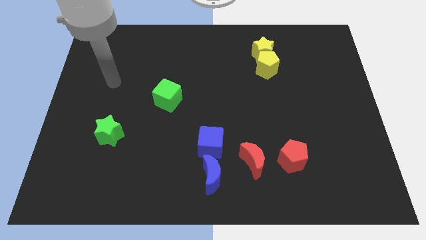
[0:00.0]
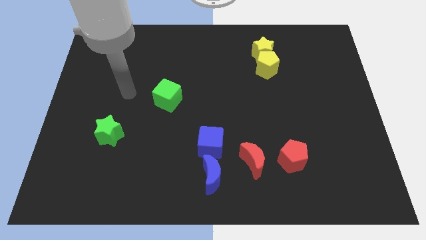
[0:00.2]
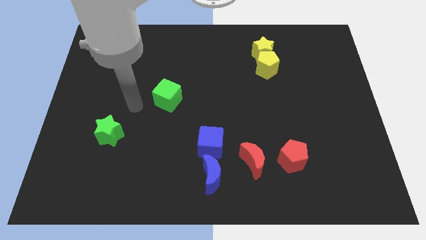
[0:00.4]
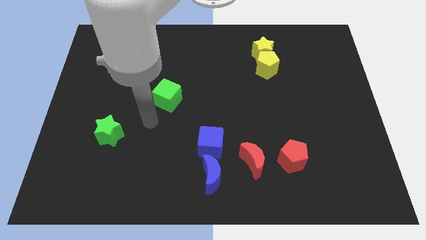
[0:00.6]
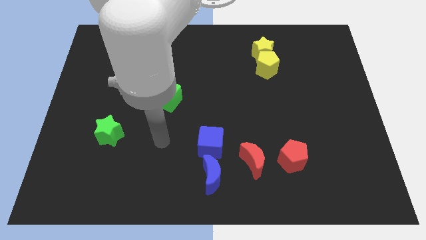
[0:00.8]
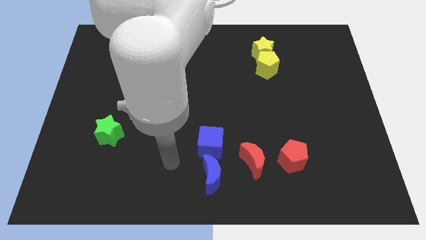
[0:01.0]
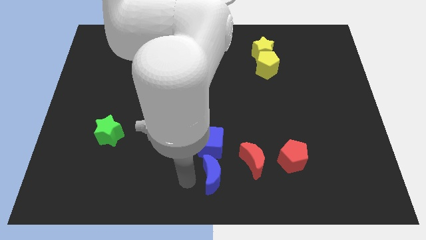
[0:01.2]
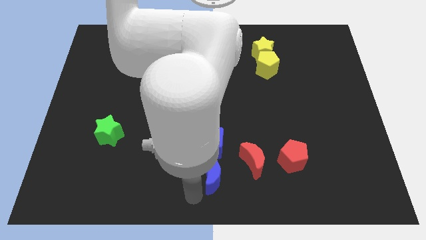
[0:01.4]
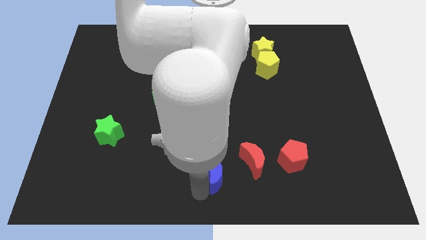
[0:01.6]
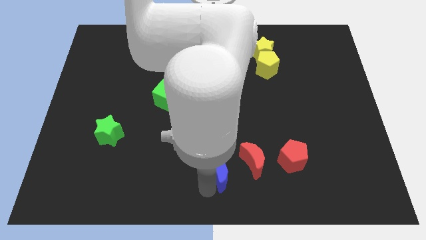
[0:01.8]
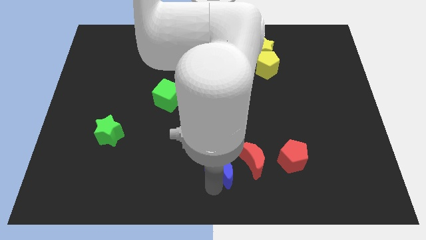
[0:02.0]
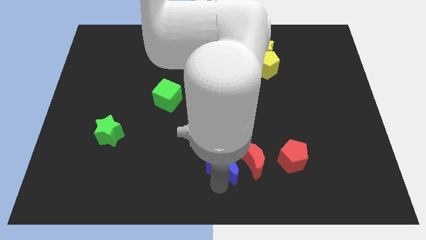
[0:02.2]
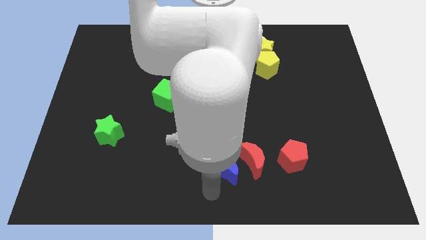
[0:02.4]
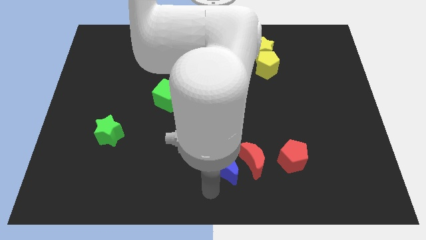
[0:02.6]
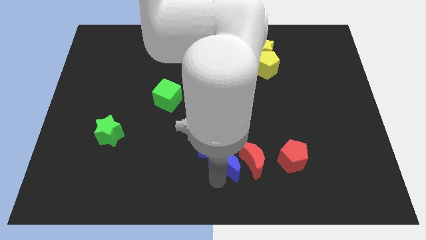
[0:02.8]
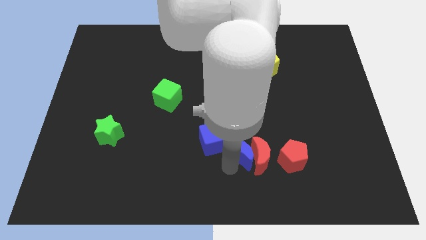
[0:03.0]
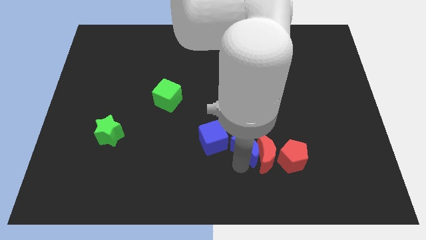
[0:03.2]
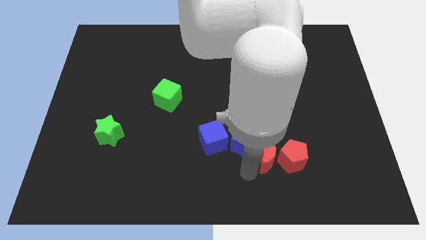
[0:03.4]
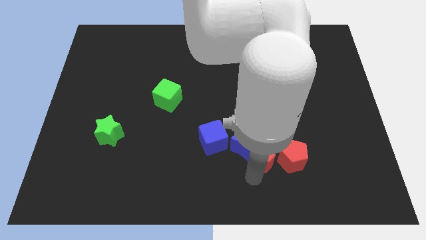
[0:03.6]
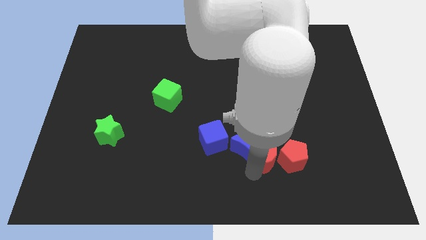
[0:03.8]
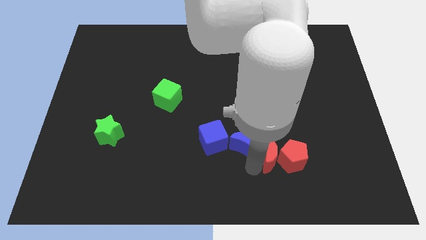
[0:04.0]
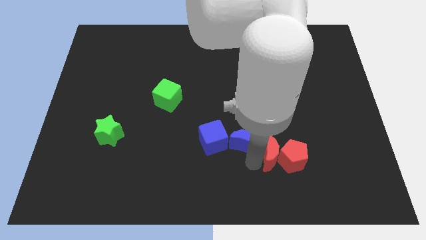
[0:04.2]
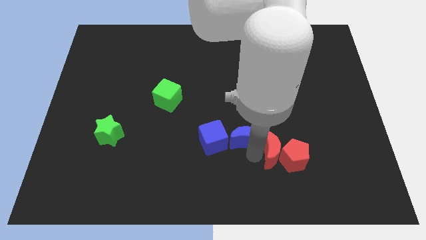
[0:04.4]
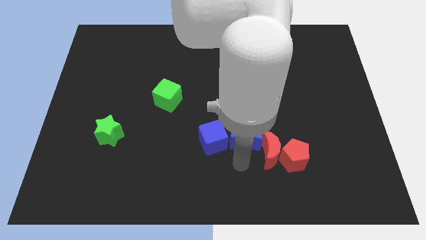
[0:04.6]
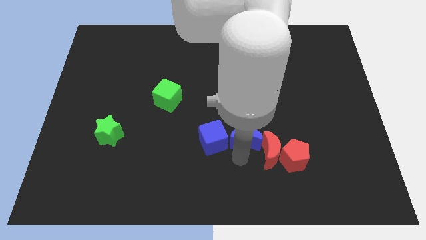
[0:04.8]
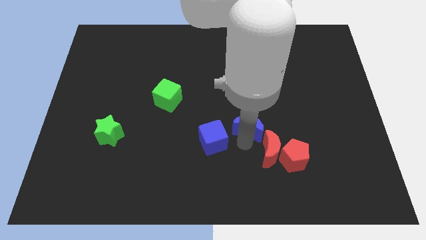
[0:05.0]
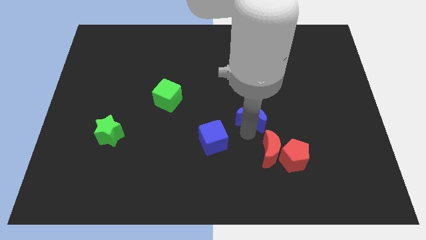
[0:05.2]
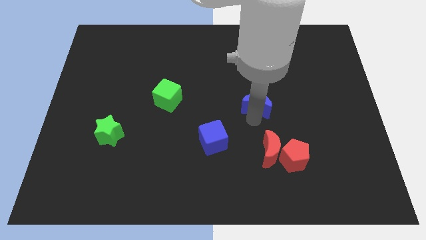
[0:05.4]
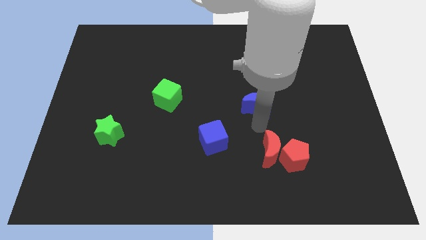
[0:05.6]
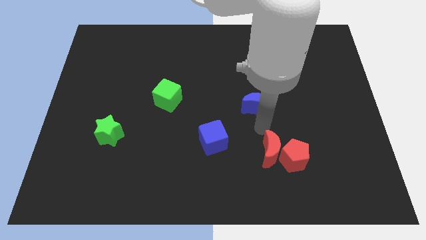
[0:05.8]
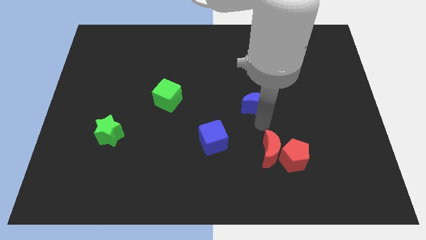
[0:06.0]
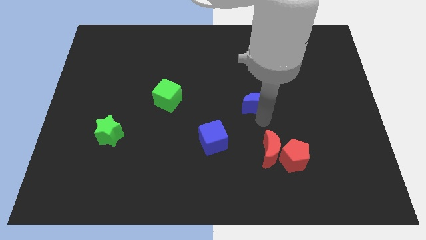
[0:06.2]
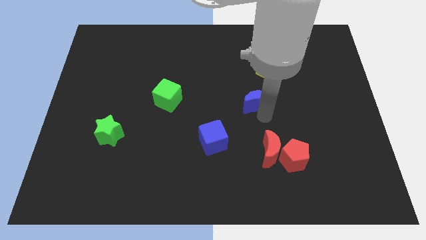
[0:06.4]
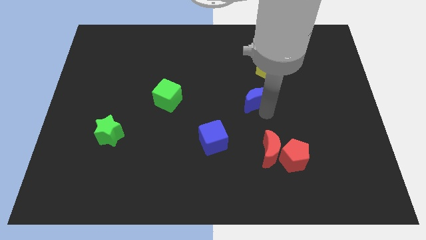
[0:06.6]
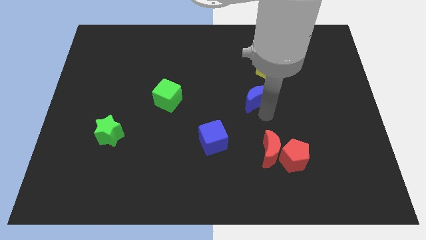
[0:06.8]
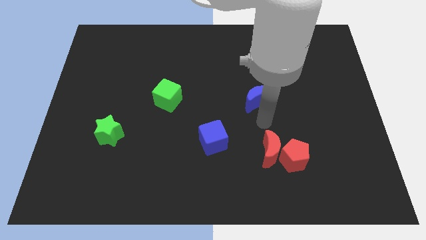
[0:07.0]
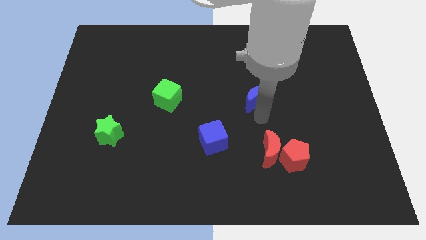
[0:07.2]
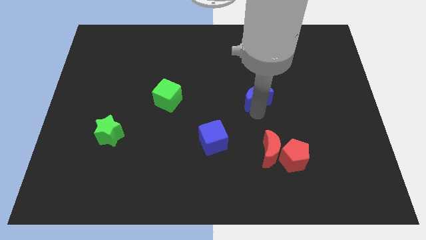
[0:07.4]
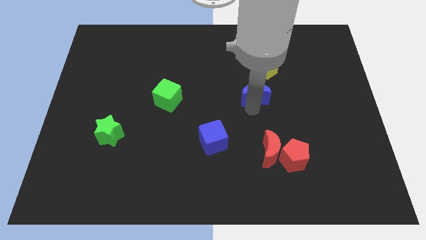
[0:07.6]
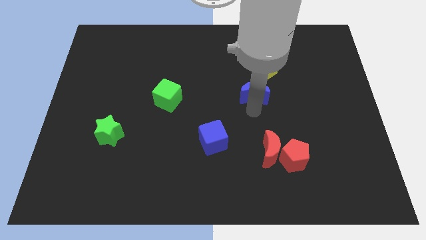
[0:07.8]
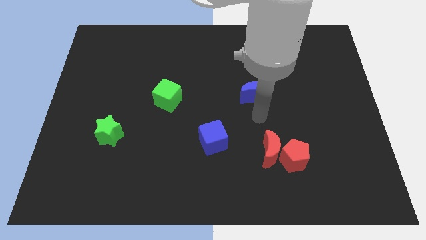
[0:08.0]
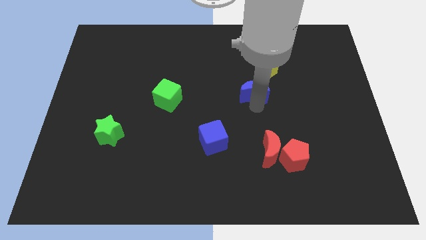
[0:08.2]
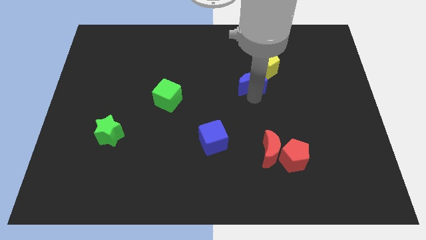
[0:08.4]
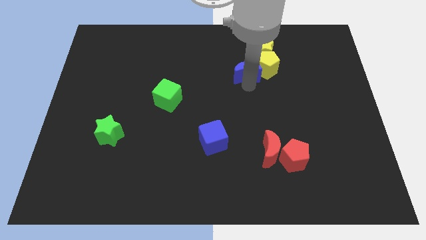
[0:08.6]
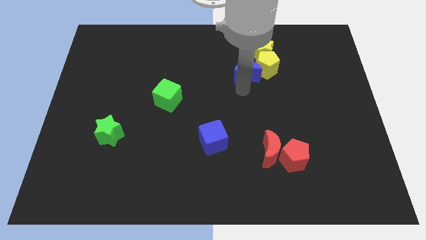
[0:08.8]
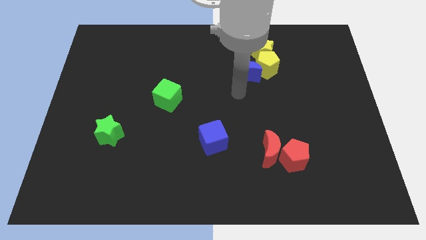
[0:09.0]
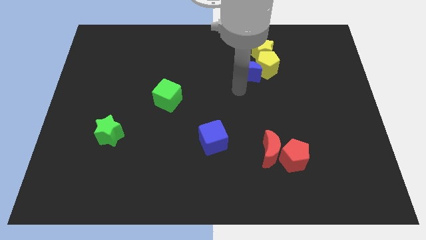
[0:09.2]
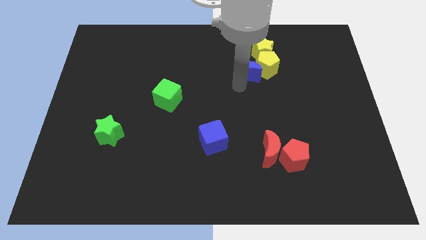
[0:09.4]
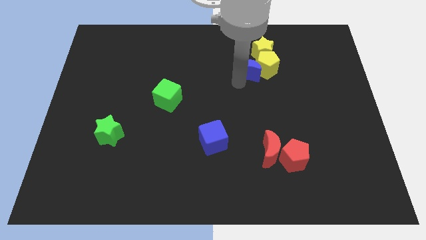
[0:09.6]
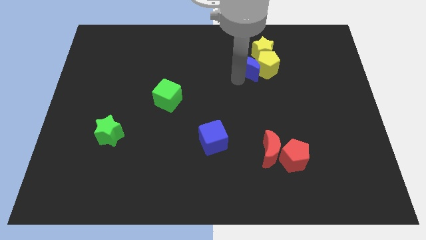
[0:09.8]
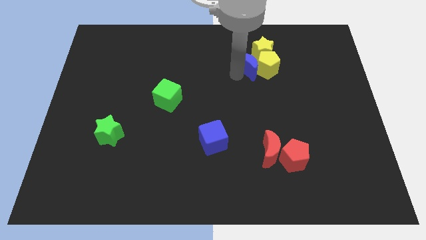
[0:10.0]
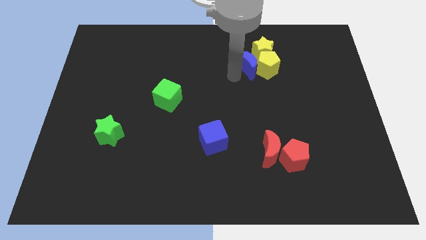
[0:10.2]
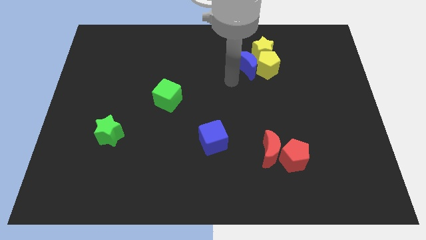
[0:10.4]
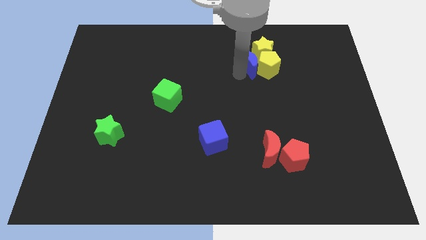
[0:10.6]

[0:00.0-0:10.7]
push the blue moon next to the yellow star

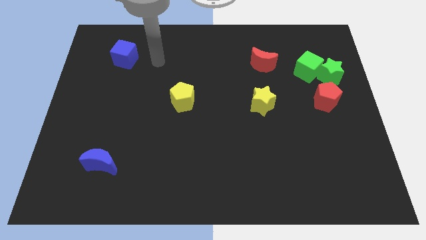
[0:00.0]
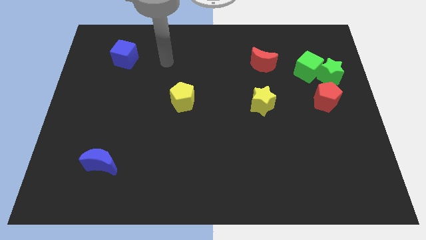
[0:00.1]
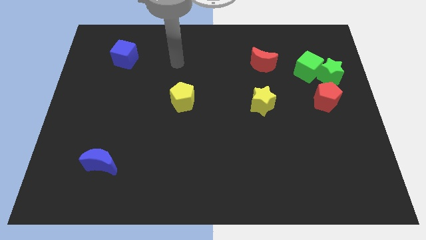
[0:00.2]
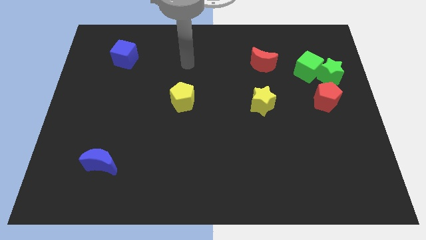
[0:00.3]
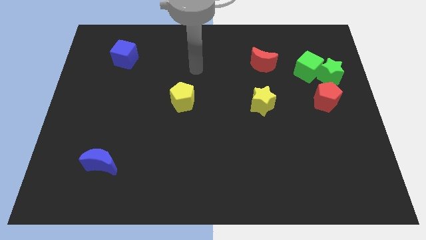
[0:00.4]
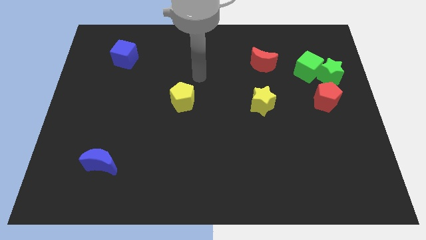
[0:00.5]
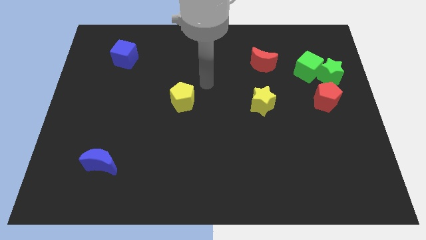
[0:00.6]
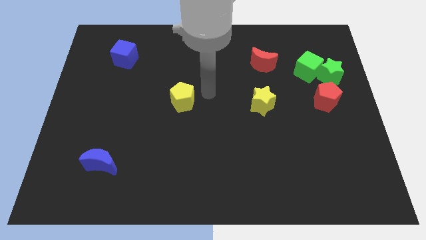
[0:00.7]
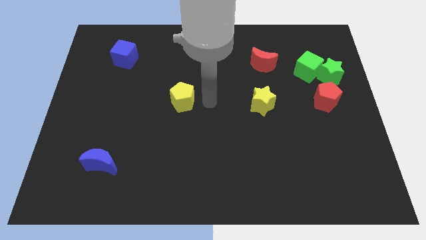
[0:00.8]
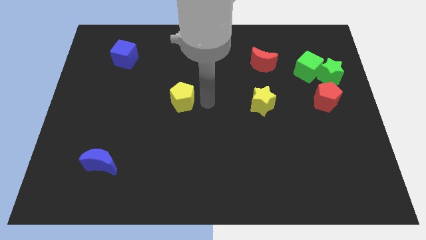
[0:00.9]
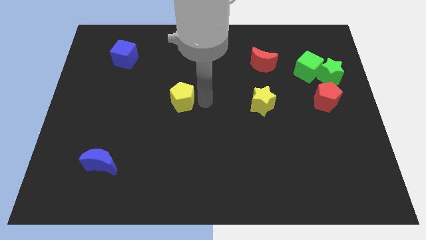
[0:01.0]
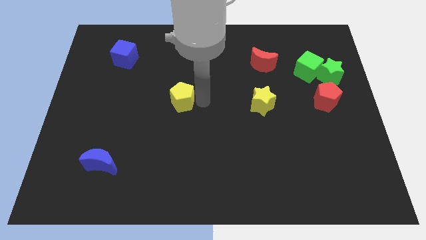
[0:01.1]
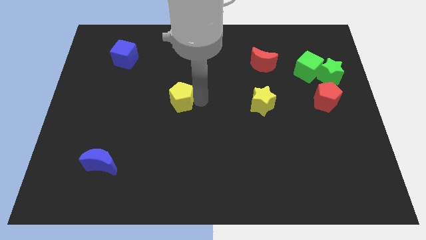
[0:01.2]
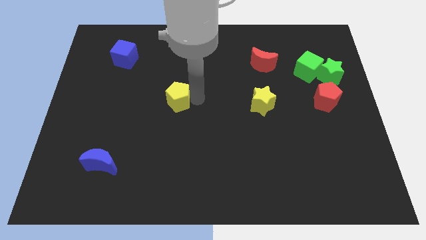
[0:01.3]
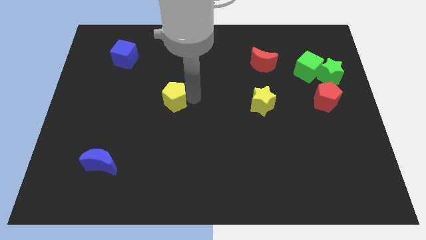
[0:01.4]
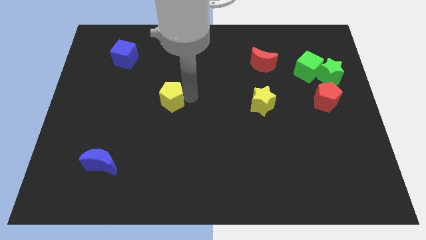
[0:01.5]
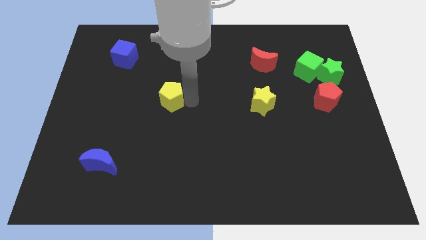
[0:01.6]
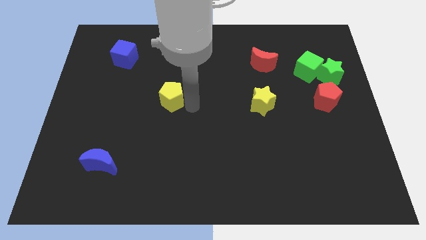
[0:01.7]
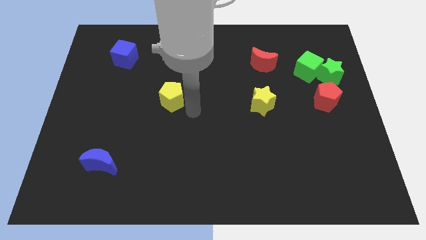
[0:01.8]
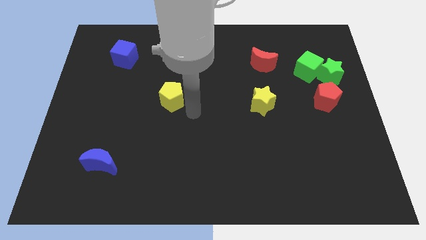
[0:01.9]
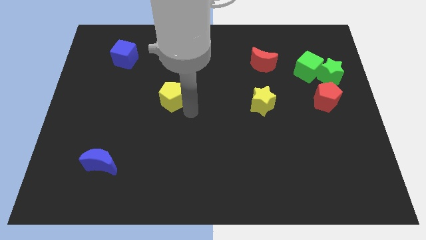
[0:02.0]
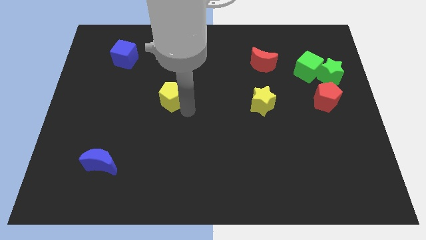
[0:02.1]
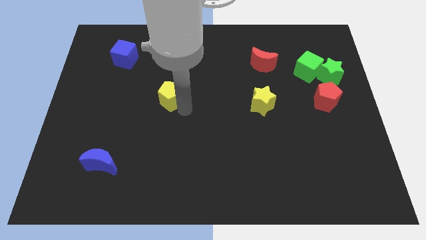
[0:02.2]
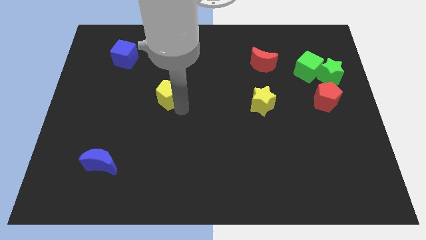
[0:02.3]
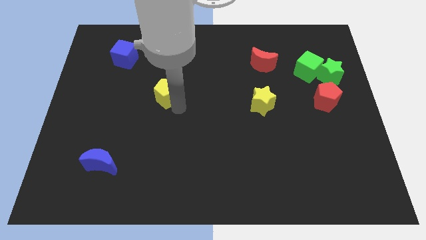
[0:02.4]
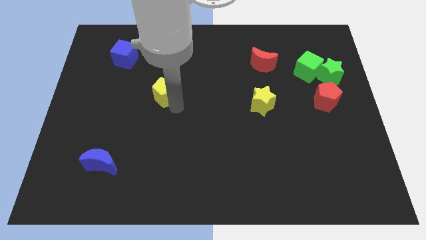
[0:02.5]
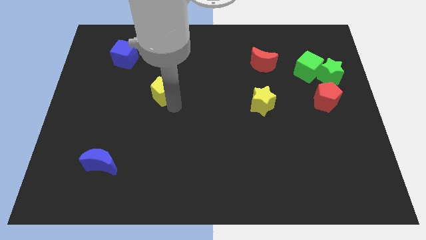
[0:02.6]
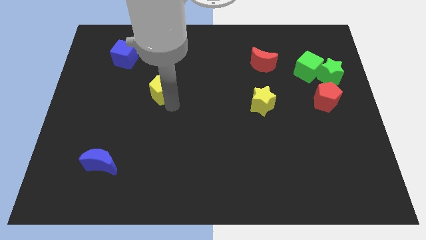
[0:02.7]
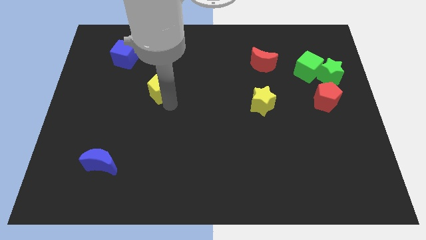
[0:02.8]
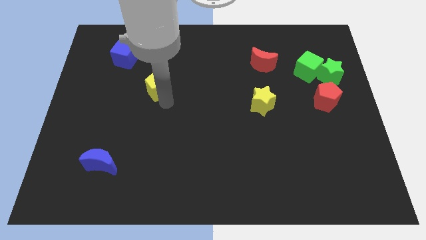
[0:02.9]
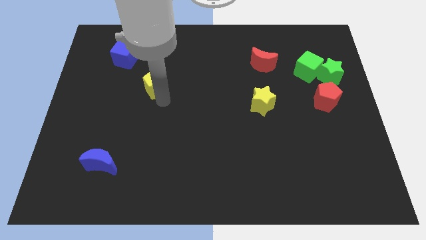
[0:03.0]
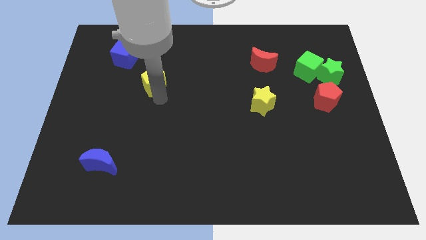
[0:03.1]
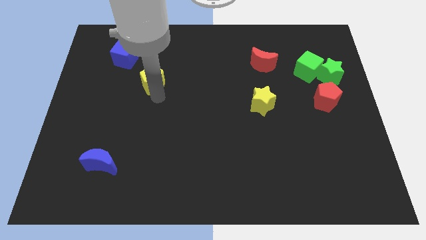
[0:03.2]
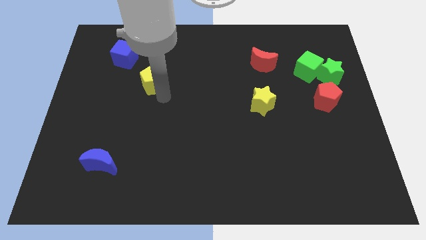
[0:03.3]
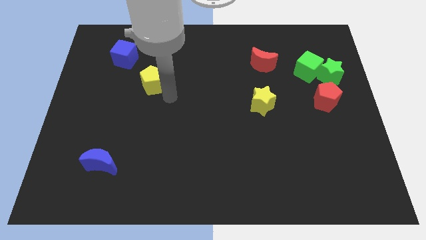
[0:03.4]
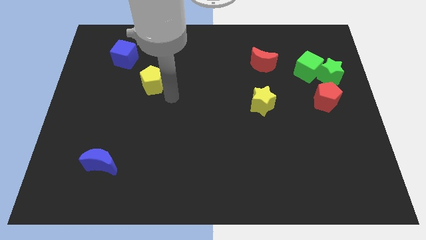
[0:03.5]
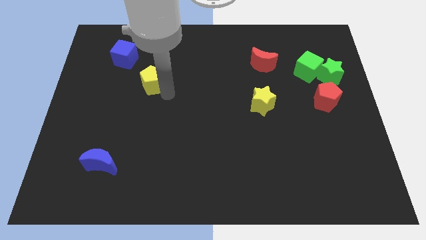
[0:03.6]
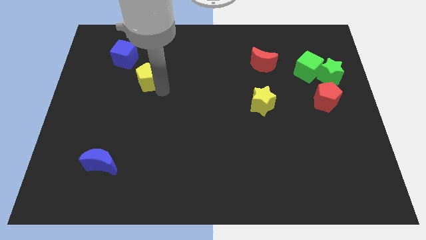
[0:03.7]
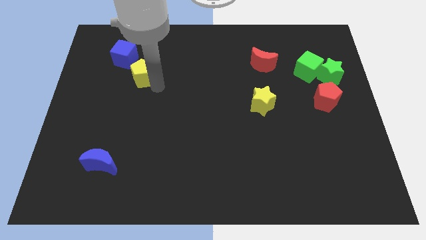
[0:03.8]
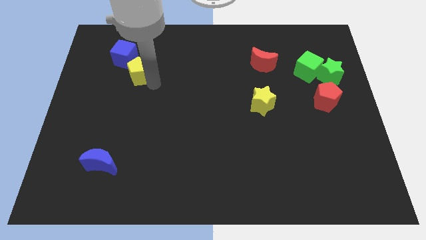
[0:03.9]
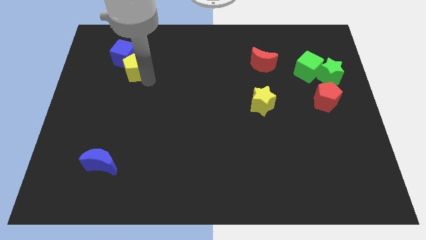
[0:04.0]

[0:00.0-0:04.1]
put the yellow pentagon close to the blue cube
